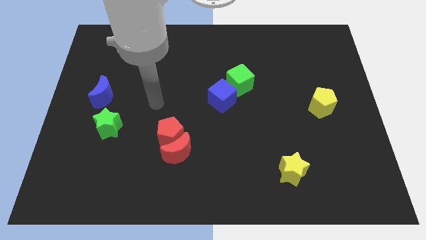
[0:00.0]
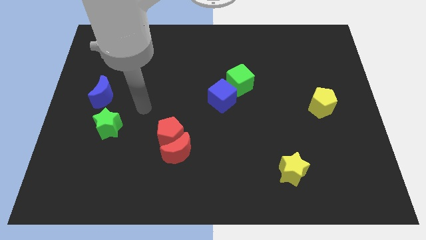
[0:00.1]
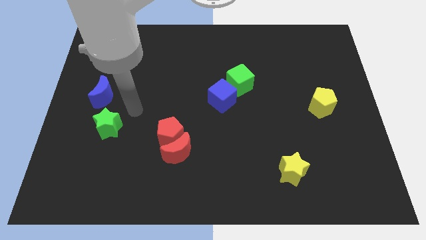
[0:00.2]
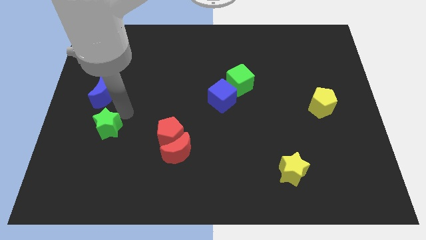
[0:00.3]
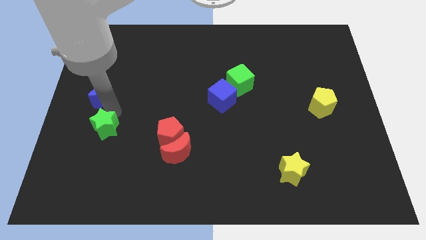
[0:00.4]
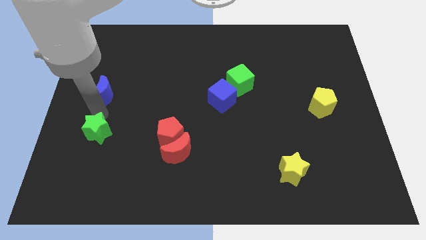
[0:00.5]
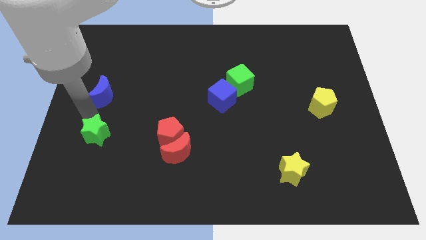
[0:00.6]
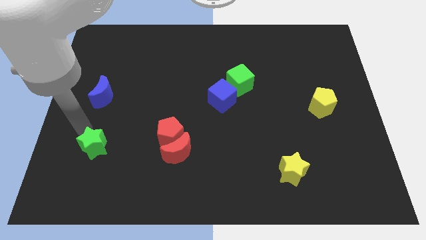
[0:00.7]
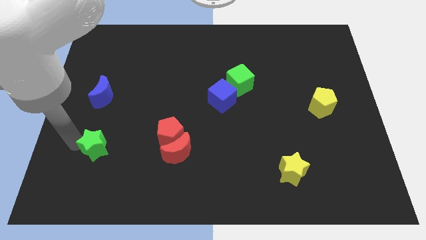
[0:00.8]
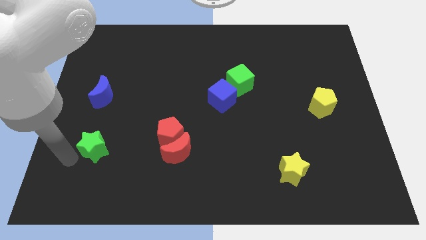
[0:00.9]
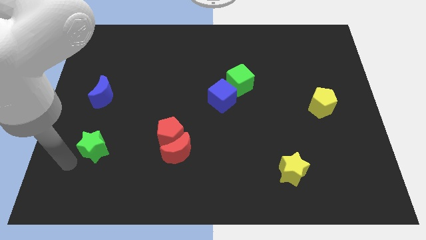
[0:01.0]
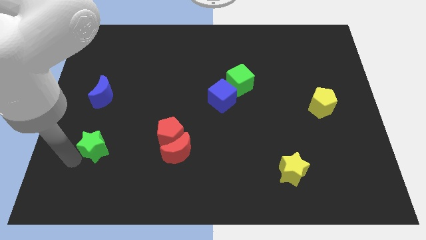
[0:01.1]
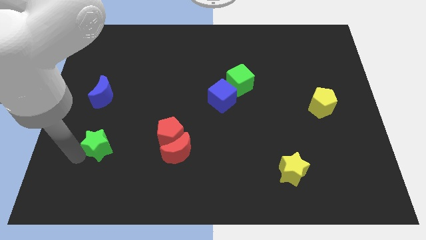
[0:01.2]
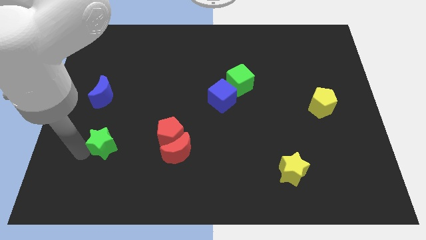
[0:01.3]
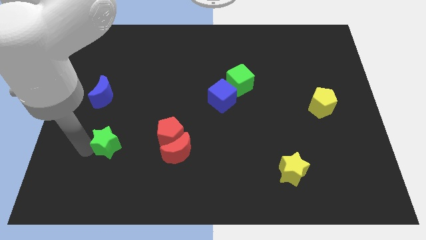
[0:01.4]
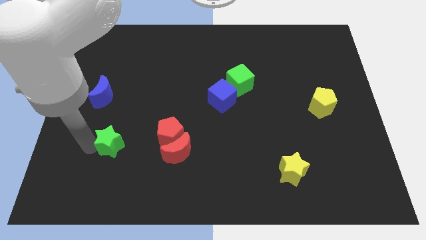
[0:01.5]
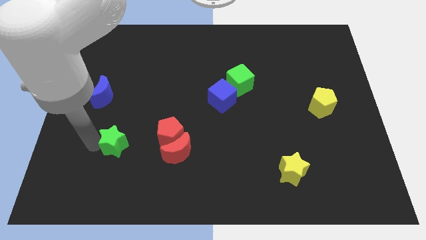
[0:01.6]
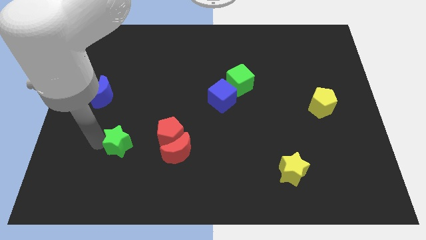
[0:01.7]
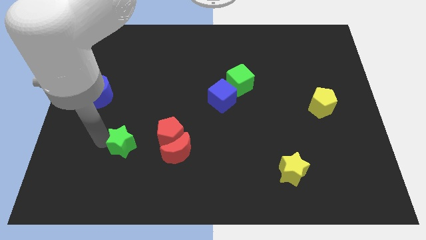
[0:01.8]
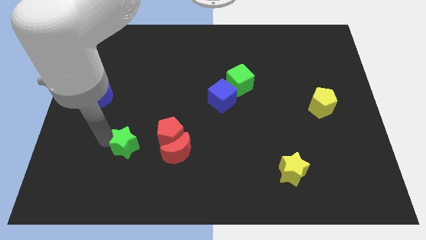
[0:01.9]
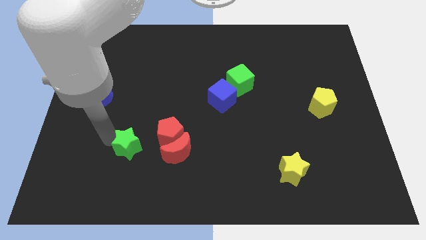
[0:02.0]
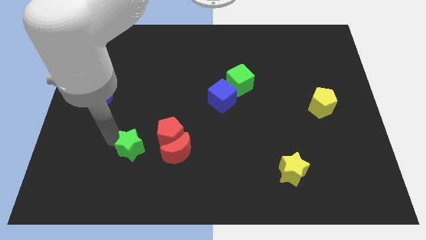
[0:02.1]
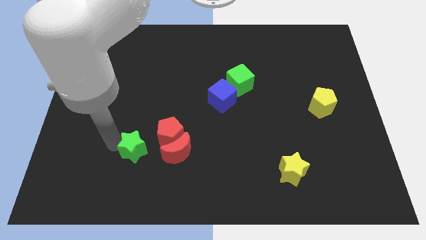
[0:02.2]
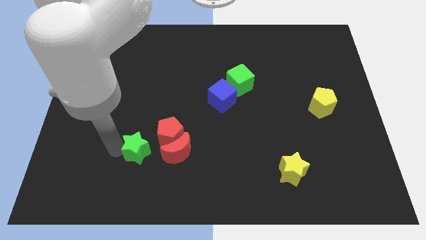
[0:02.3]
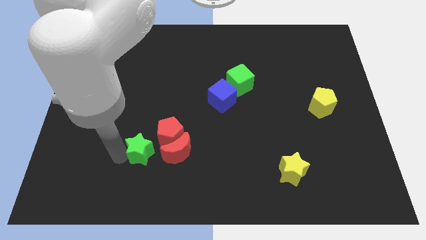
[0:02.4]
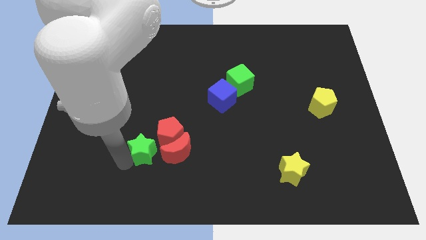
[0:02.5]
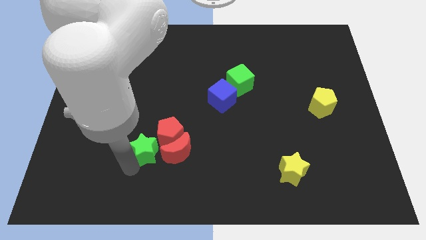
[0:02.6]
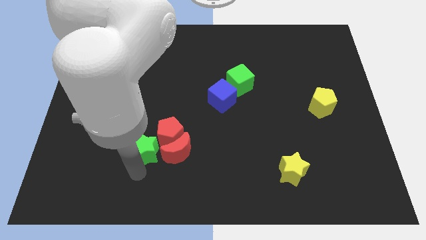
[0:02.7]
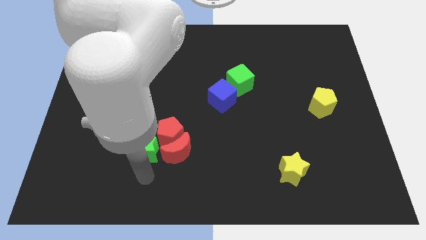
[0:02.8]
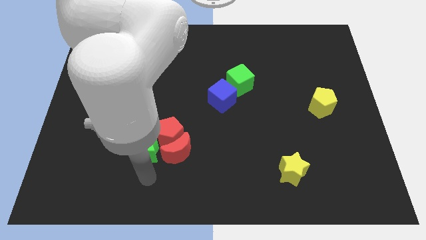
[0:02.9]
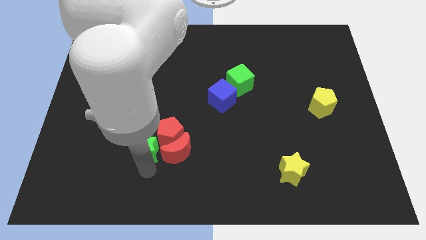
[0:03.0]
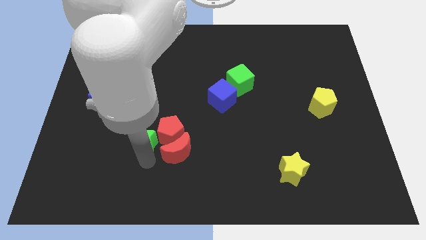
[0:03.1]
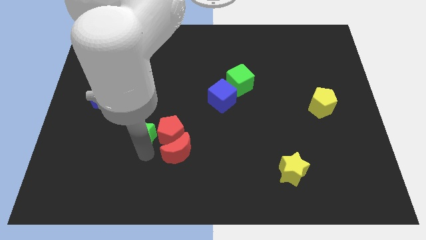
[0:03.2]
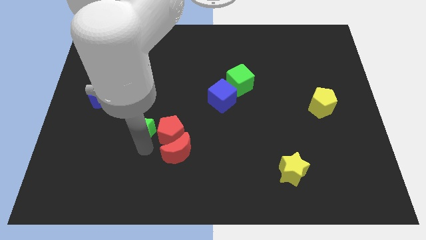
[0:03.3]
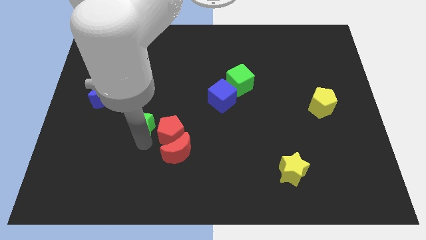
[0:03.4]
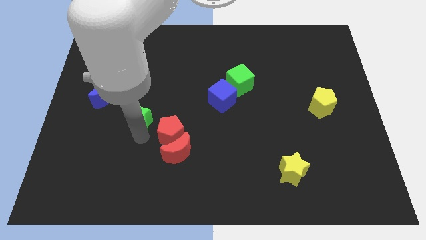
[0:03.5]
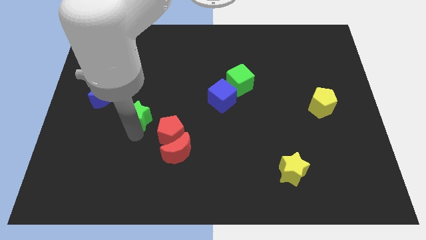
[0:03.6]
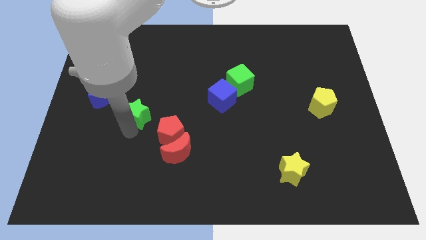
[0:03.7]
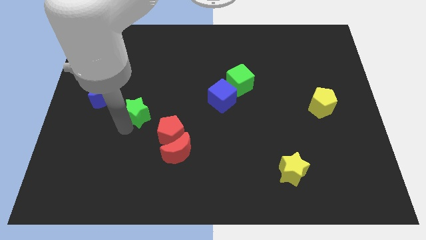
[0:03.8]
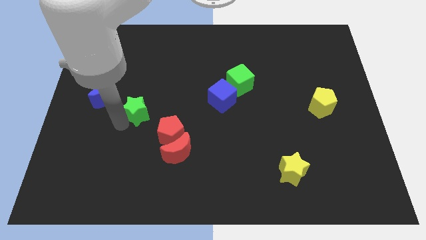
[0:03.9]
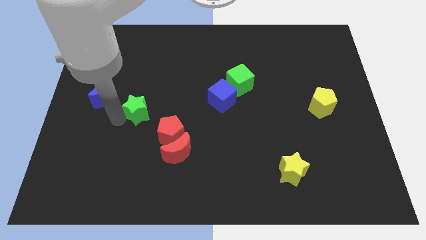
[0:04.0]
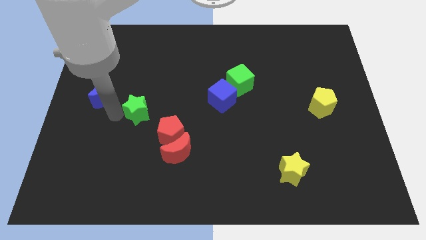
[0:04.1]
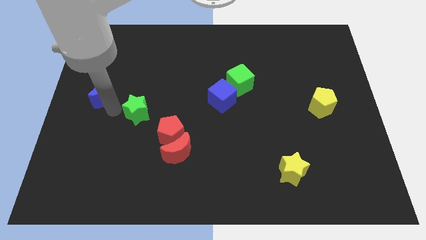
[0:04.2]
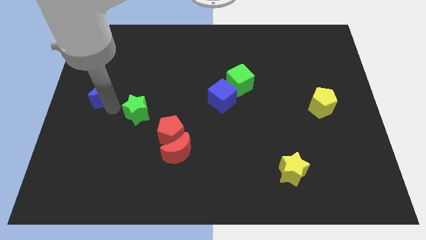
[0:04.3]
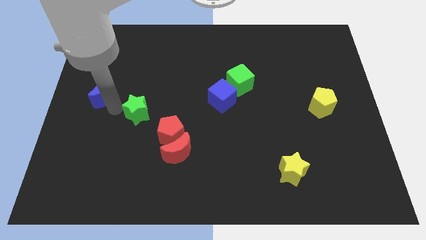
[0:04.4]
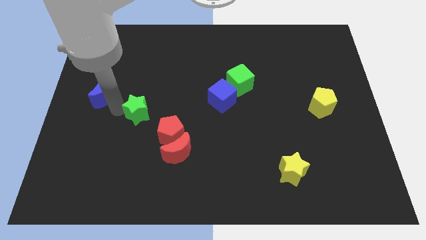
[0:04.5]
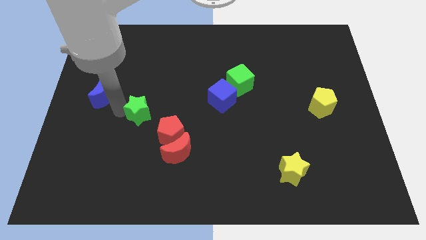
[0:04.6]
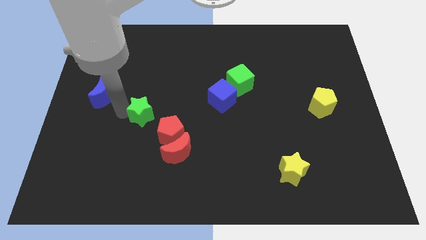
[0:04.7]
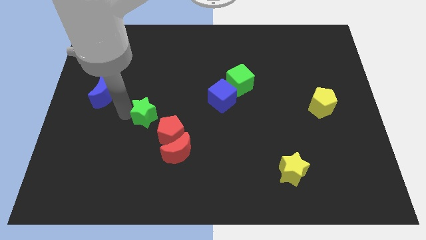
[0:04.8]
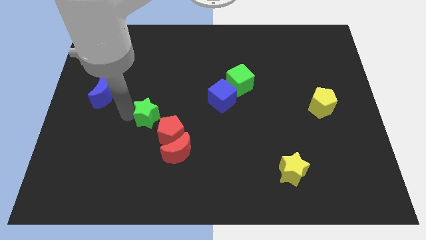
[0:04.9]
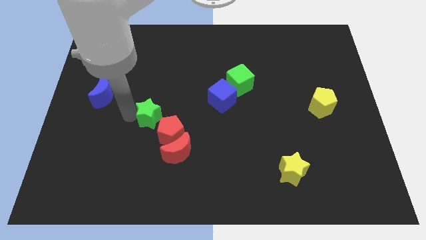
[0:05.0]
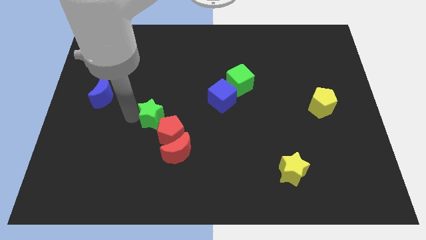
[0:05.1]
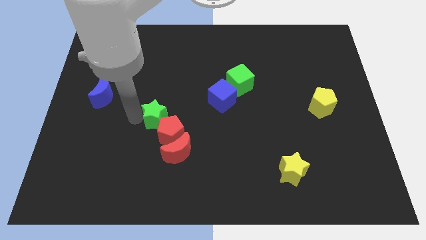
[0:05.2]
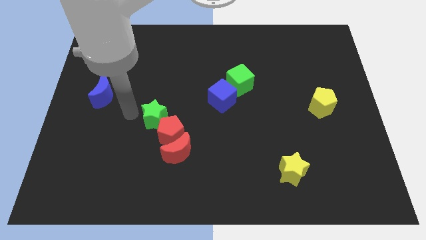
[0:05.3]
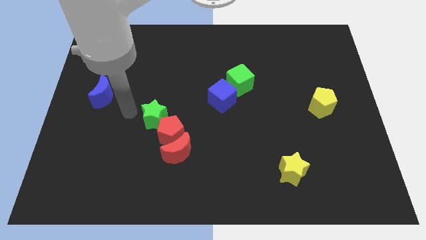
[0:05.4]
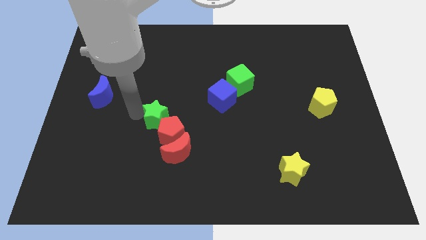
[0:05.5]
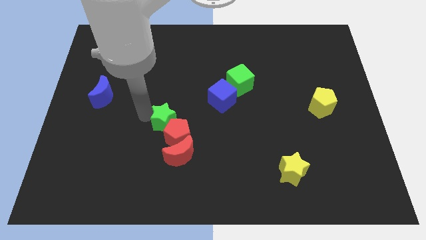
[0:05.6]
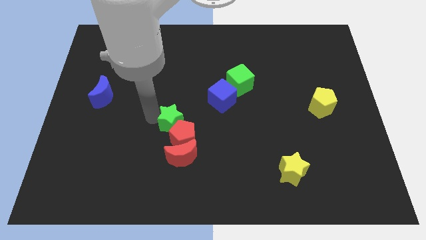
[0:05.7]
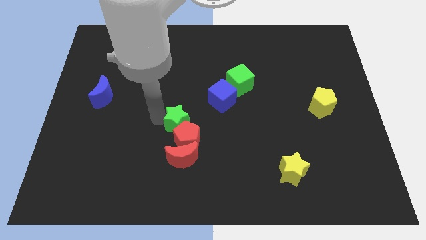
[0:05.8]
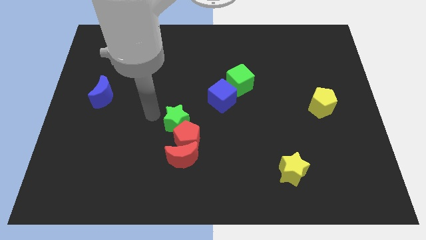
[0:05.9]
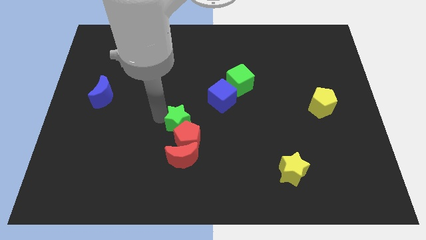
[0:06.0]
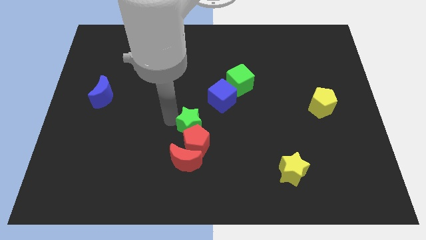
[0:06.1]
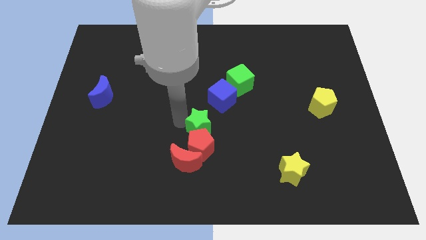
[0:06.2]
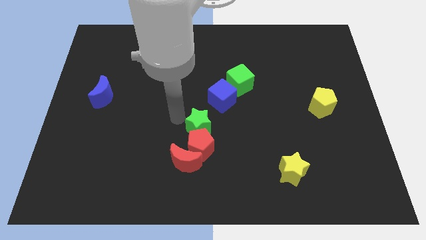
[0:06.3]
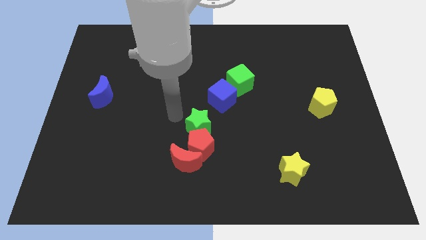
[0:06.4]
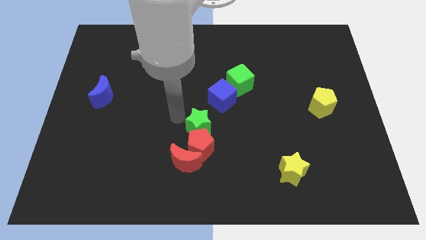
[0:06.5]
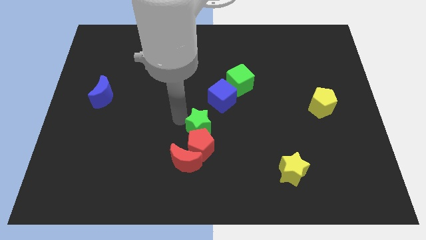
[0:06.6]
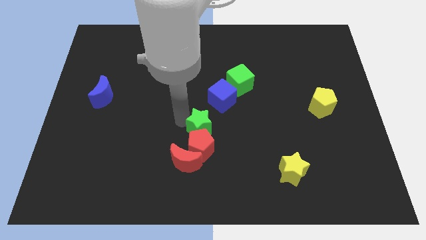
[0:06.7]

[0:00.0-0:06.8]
move the green star below the blue cube

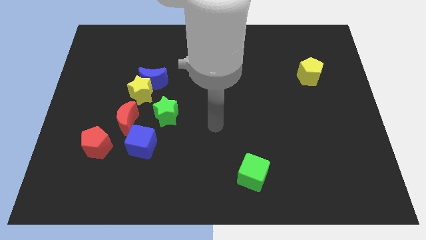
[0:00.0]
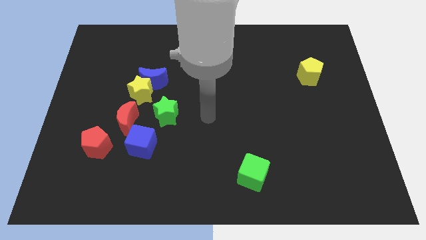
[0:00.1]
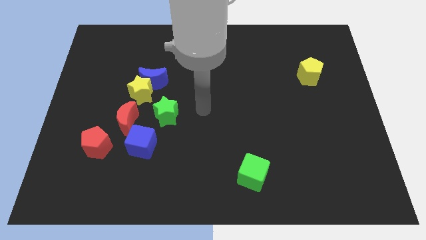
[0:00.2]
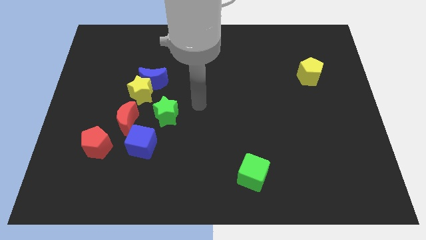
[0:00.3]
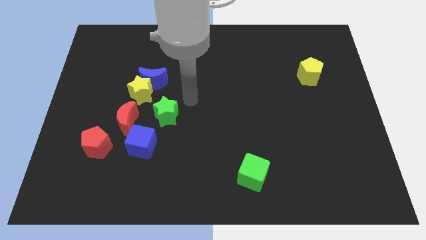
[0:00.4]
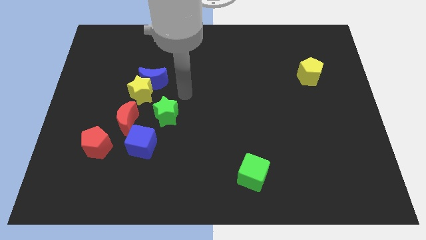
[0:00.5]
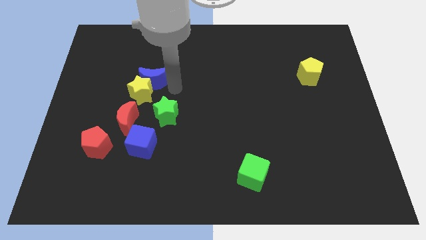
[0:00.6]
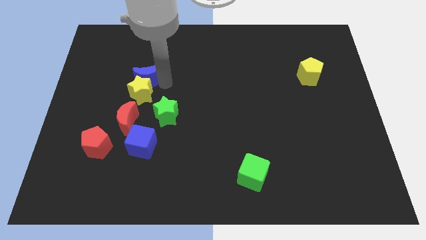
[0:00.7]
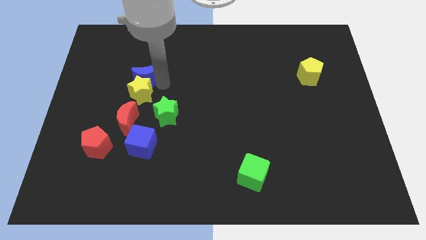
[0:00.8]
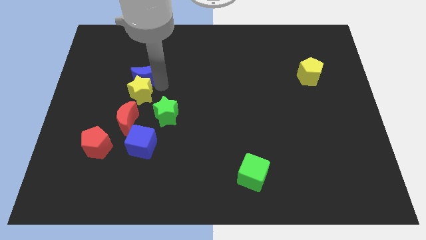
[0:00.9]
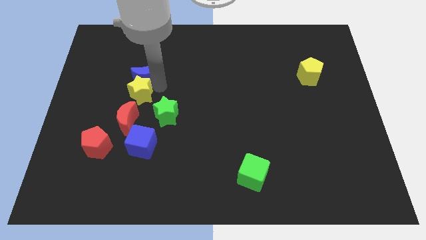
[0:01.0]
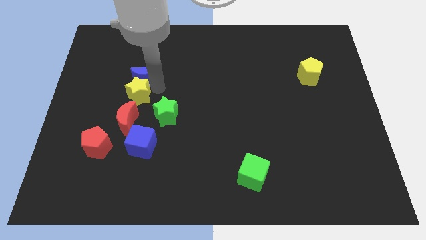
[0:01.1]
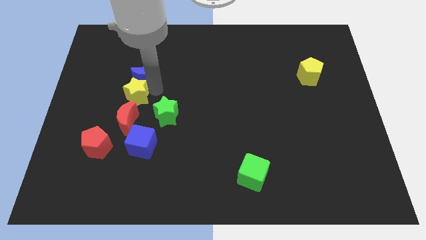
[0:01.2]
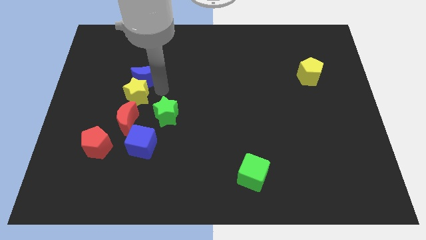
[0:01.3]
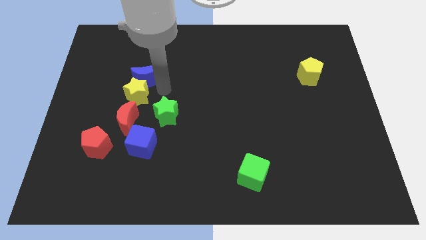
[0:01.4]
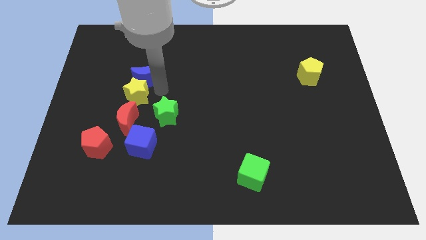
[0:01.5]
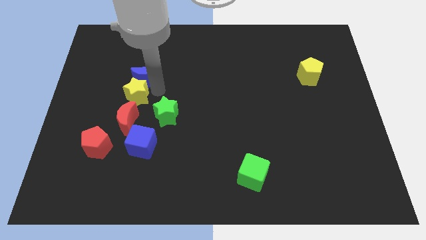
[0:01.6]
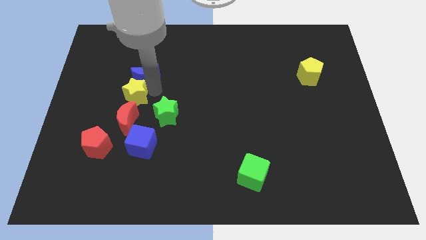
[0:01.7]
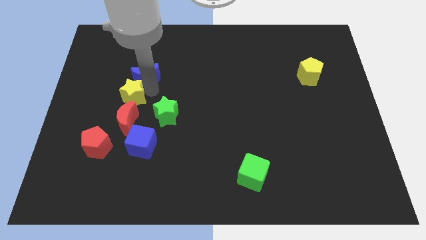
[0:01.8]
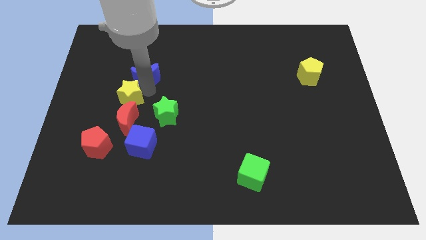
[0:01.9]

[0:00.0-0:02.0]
put the yellow star to the top left of the red moon
